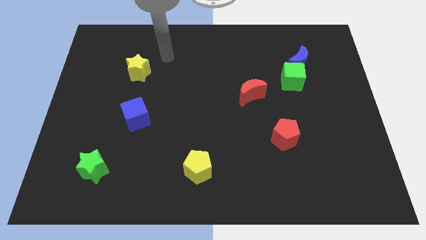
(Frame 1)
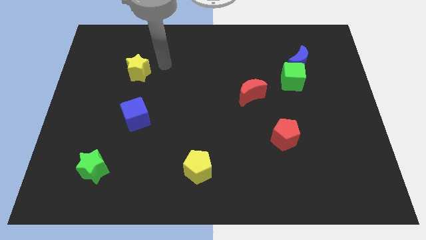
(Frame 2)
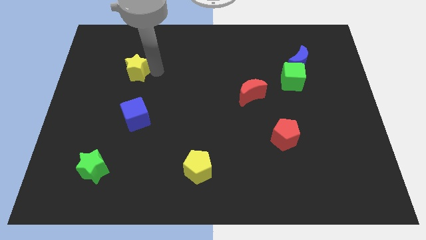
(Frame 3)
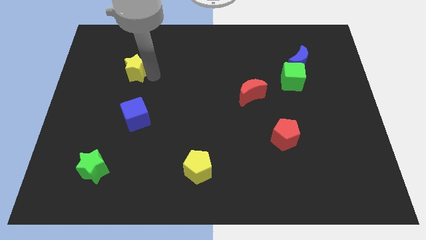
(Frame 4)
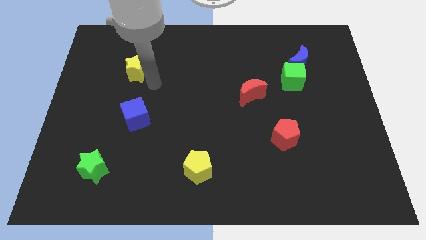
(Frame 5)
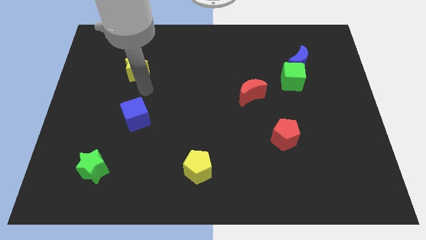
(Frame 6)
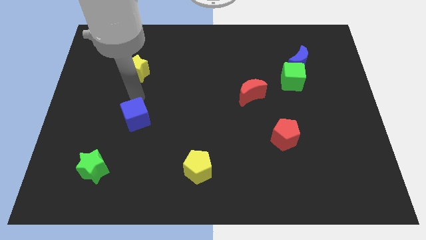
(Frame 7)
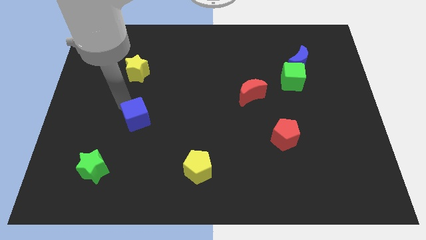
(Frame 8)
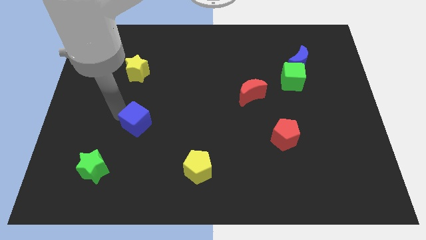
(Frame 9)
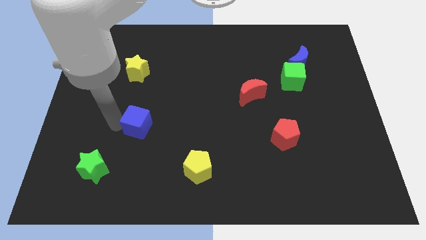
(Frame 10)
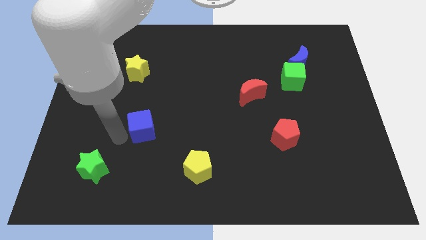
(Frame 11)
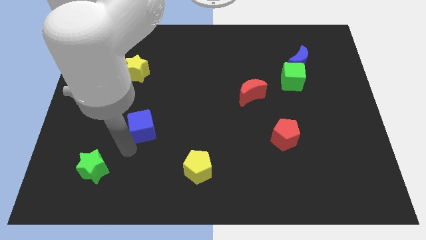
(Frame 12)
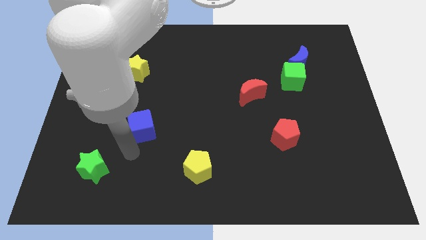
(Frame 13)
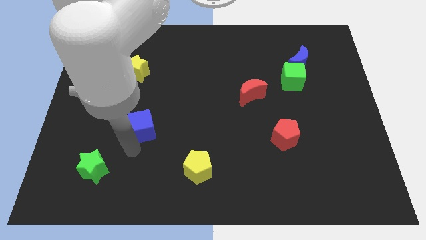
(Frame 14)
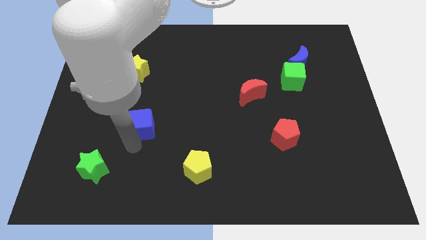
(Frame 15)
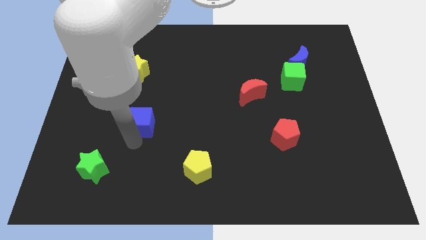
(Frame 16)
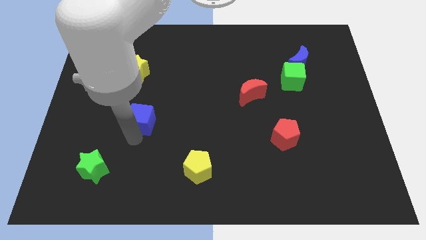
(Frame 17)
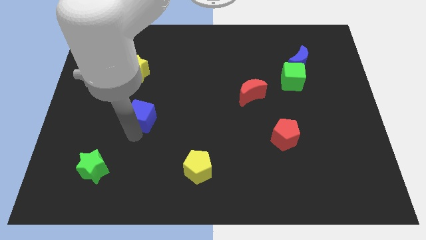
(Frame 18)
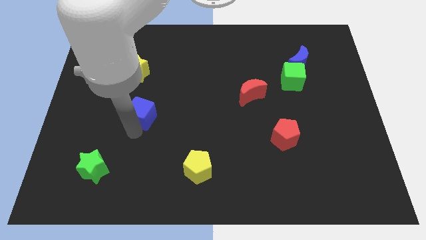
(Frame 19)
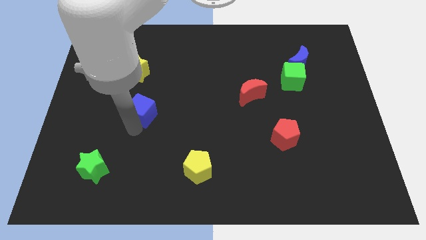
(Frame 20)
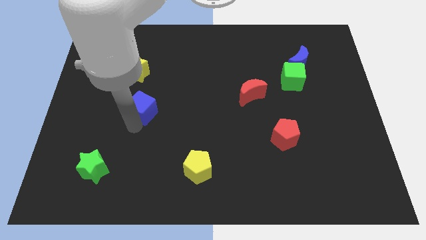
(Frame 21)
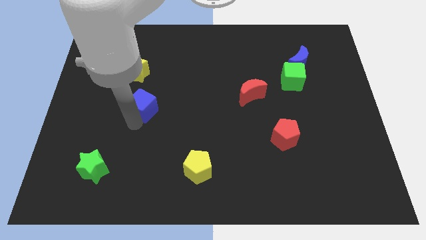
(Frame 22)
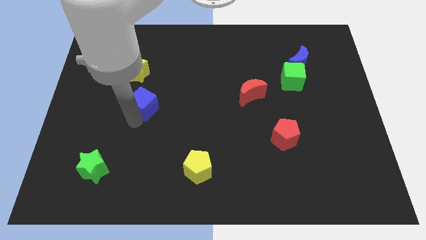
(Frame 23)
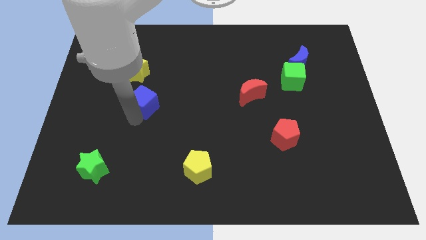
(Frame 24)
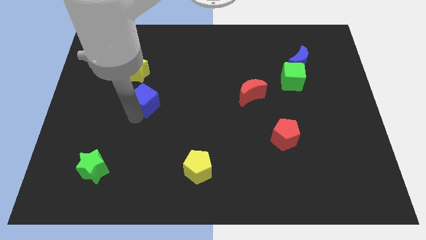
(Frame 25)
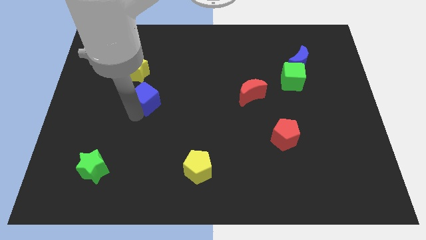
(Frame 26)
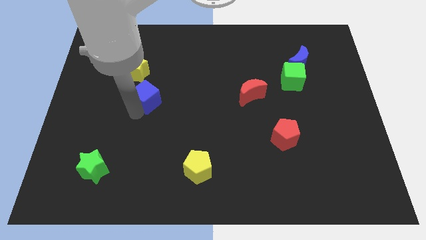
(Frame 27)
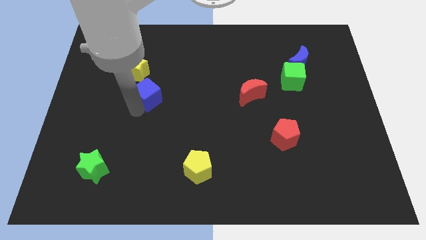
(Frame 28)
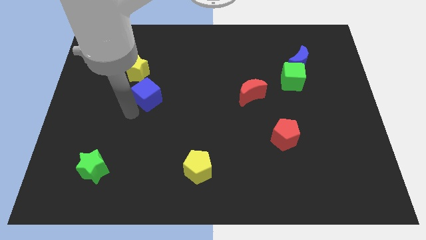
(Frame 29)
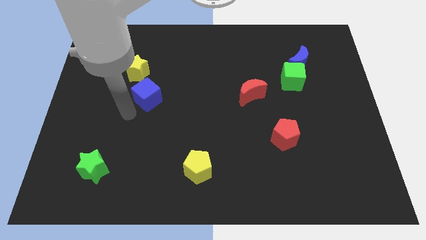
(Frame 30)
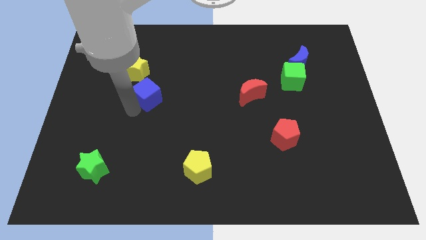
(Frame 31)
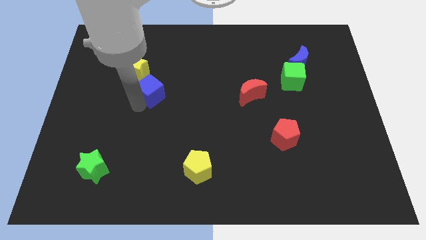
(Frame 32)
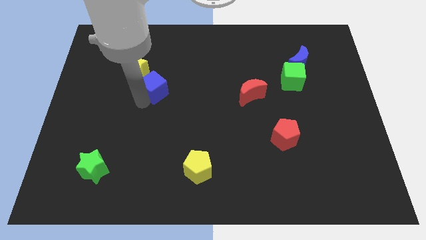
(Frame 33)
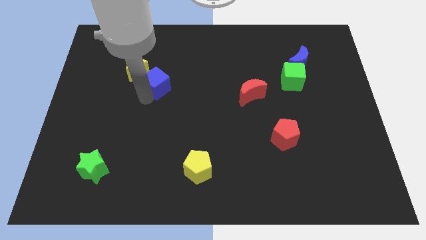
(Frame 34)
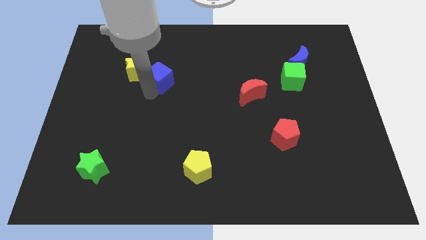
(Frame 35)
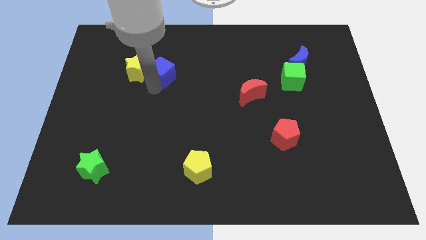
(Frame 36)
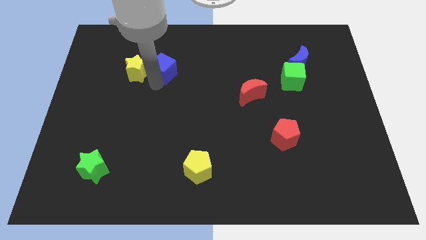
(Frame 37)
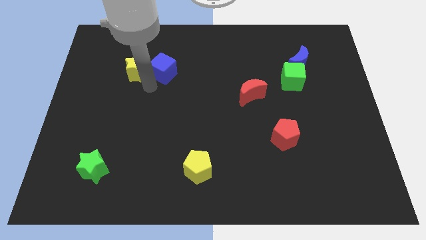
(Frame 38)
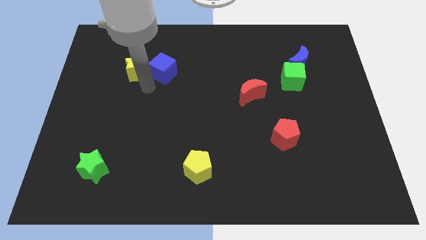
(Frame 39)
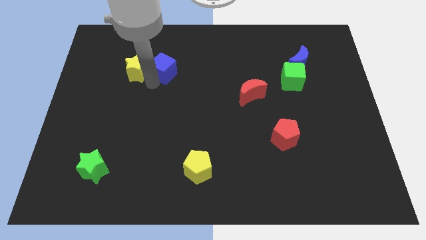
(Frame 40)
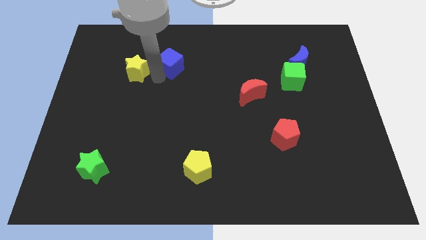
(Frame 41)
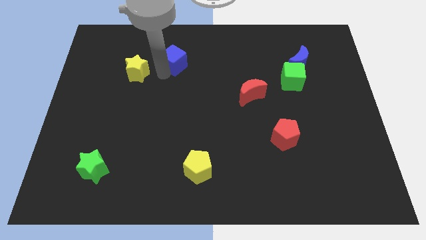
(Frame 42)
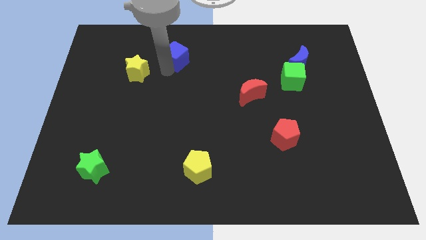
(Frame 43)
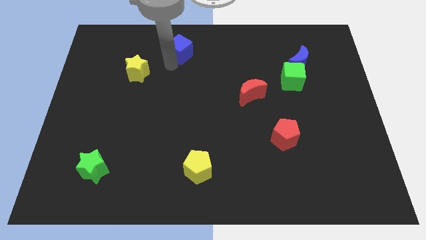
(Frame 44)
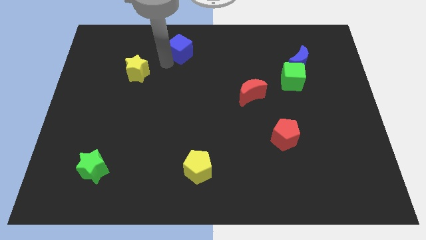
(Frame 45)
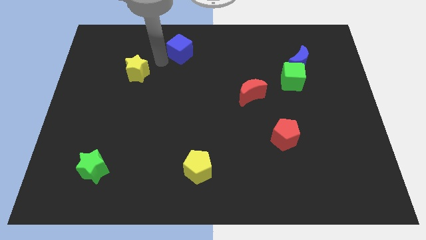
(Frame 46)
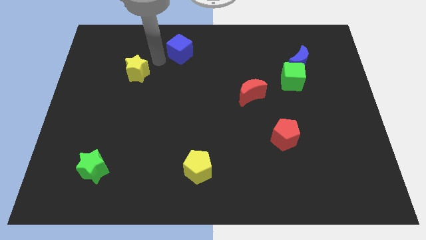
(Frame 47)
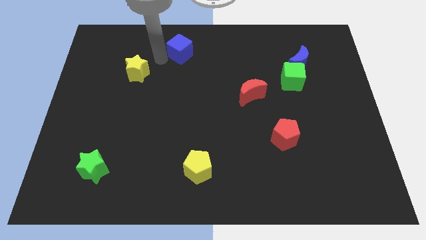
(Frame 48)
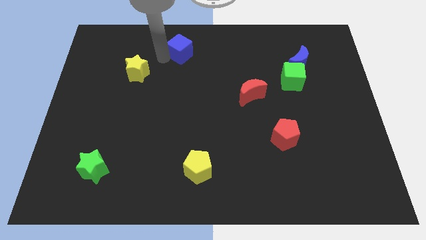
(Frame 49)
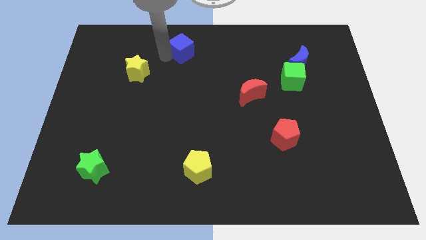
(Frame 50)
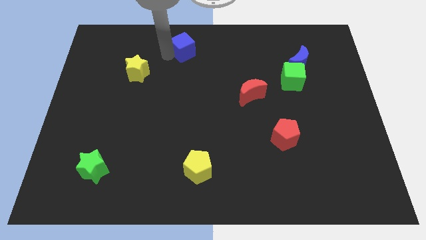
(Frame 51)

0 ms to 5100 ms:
put the blue cube to the towards your base

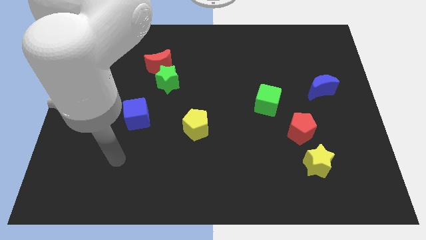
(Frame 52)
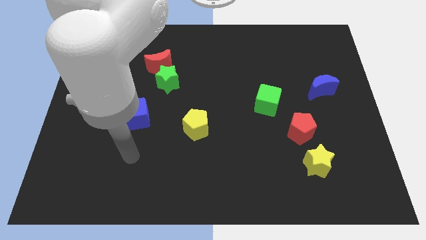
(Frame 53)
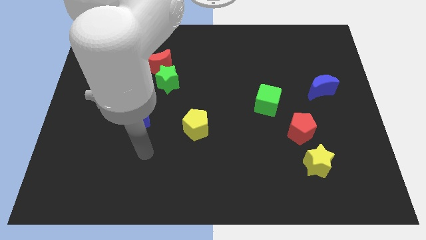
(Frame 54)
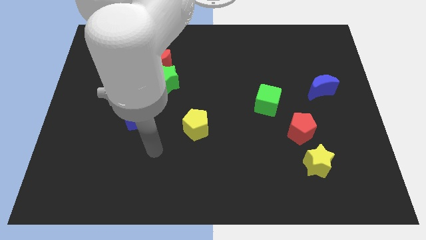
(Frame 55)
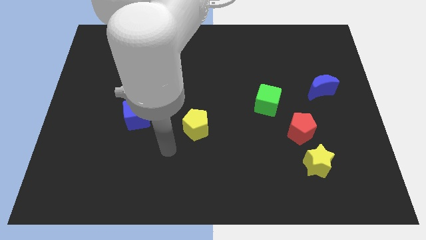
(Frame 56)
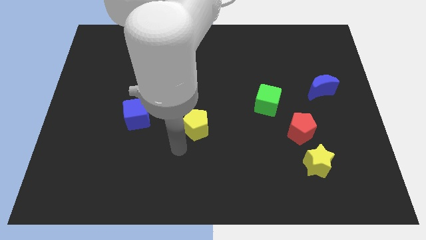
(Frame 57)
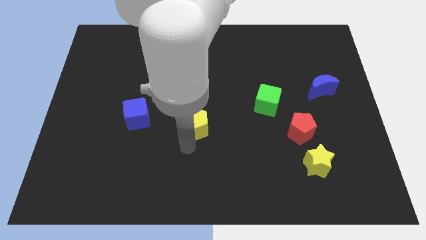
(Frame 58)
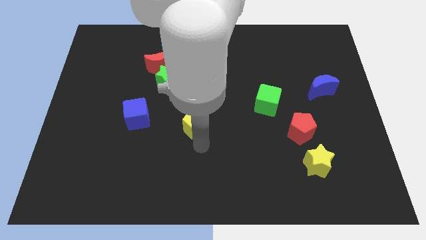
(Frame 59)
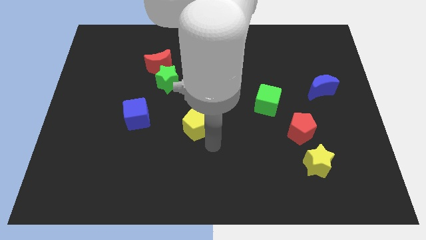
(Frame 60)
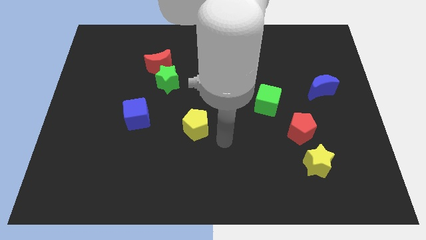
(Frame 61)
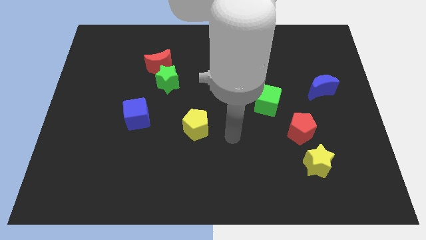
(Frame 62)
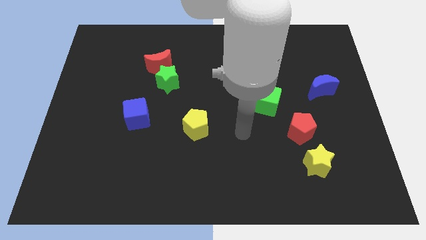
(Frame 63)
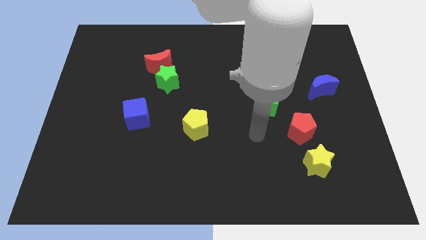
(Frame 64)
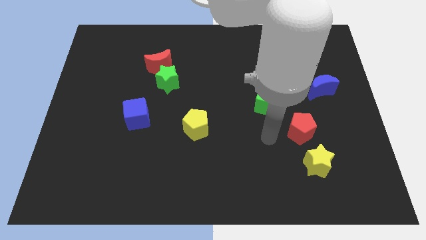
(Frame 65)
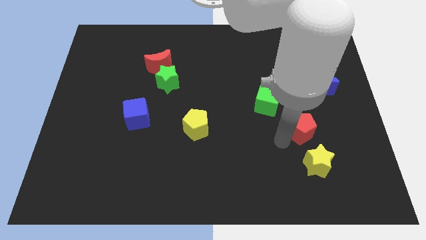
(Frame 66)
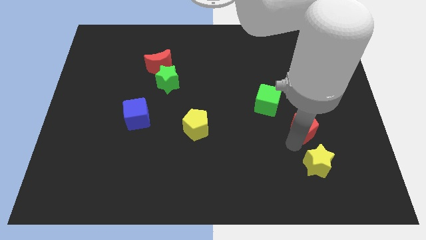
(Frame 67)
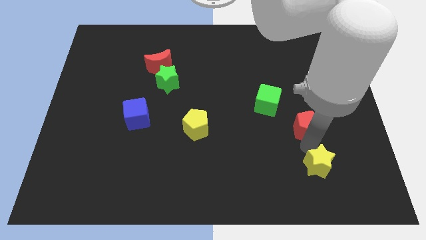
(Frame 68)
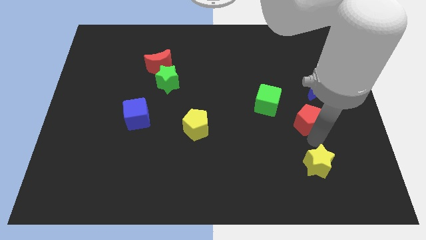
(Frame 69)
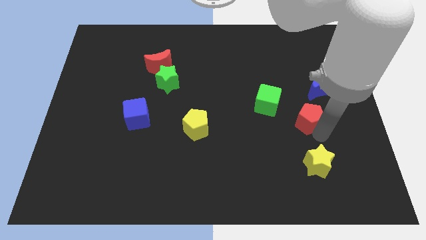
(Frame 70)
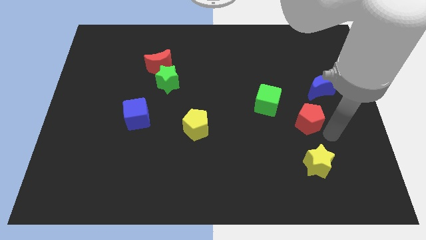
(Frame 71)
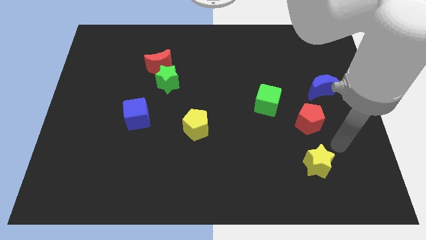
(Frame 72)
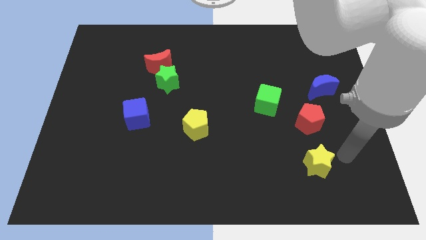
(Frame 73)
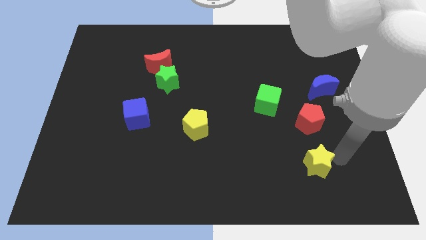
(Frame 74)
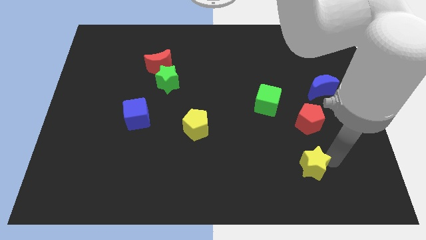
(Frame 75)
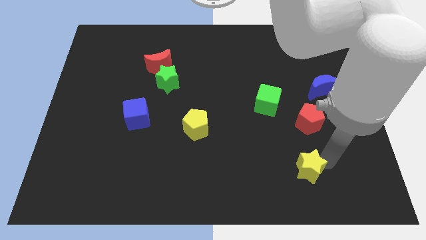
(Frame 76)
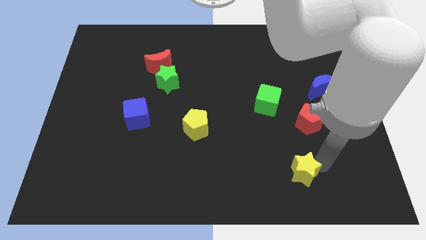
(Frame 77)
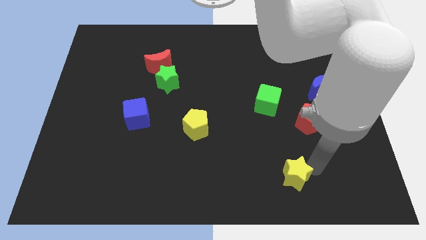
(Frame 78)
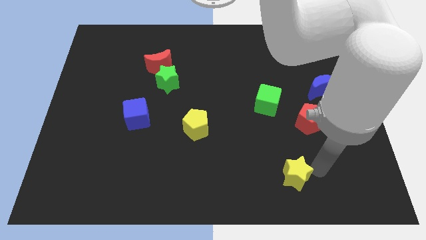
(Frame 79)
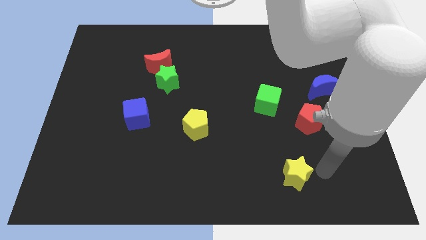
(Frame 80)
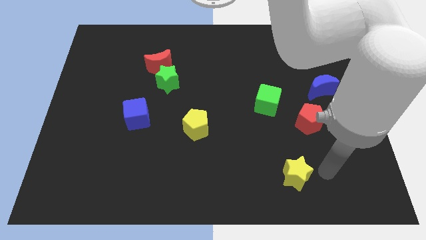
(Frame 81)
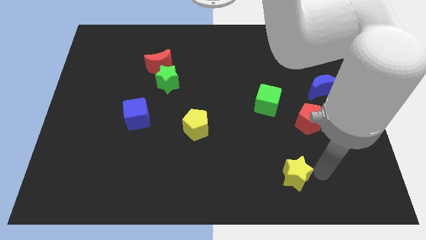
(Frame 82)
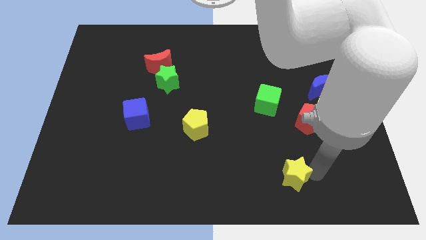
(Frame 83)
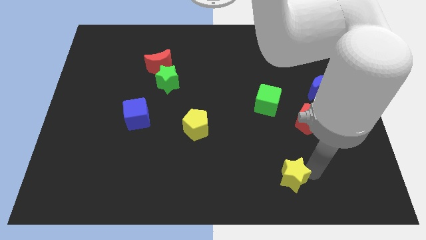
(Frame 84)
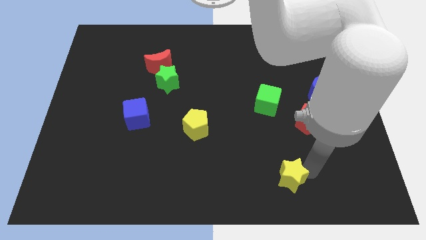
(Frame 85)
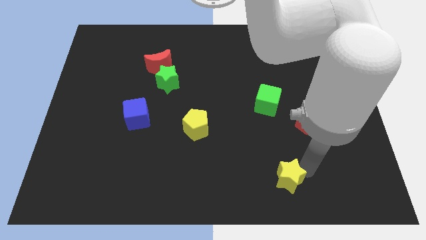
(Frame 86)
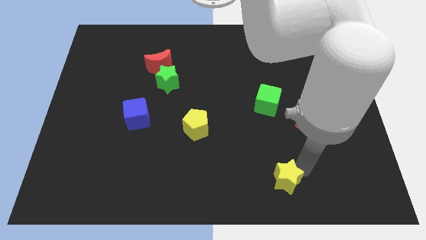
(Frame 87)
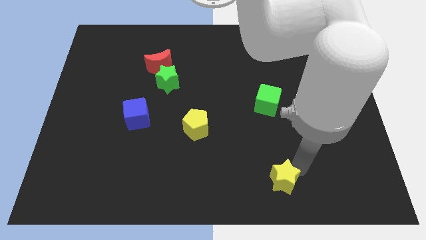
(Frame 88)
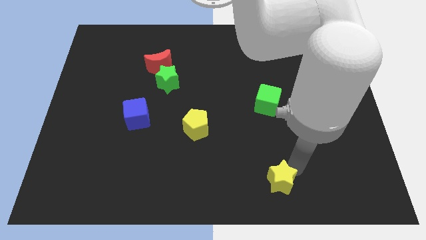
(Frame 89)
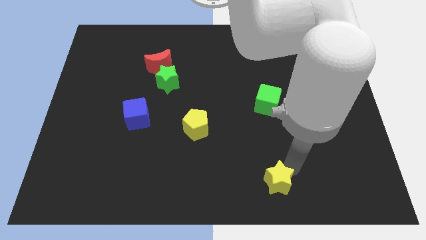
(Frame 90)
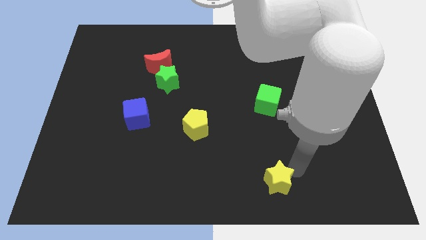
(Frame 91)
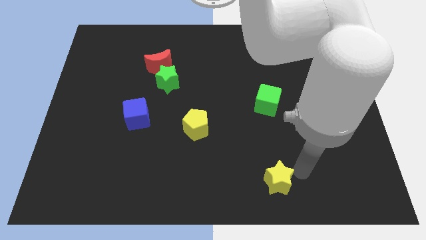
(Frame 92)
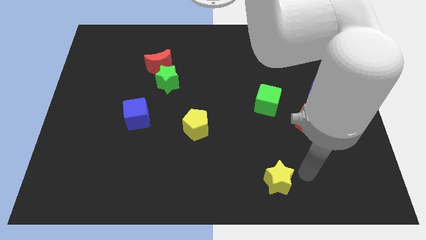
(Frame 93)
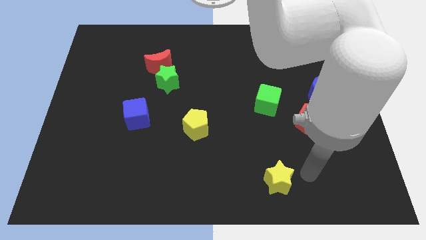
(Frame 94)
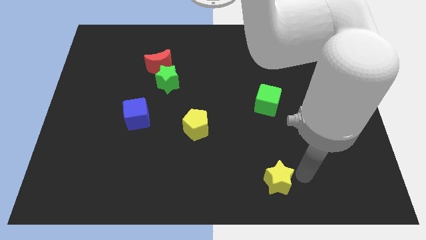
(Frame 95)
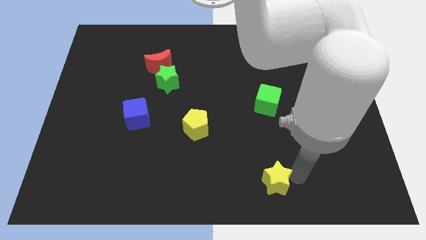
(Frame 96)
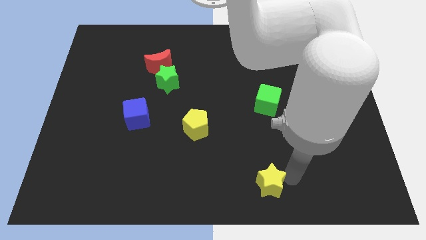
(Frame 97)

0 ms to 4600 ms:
slide the yellow star to the bottom side
